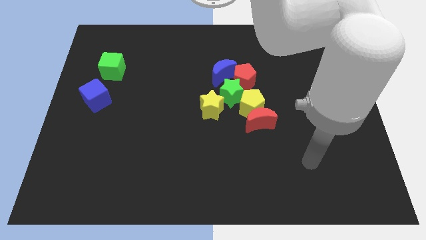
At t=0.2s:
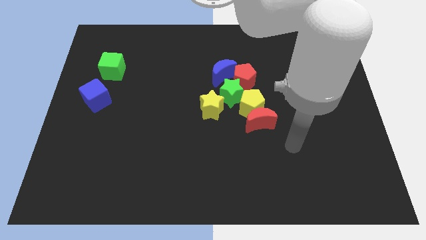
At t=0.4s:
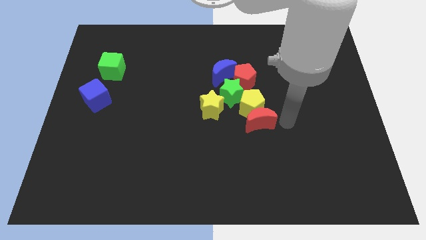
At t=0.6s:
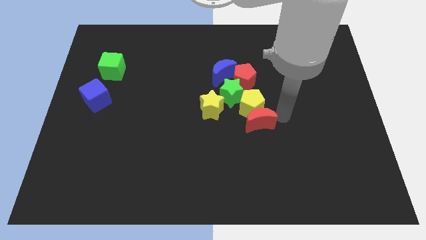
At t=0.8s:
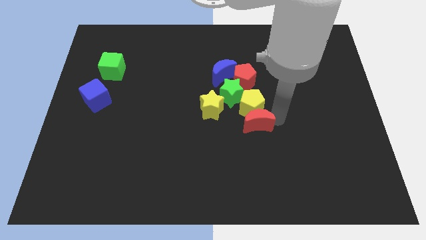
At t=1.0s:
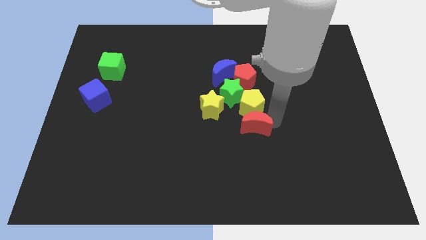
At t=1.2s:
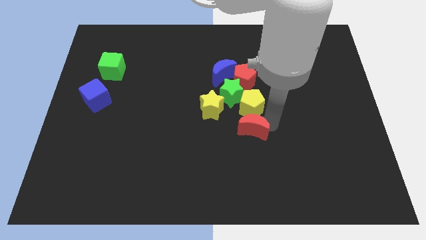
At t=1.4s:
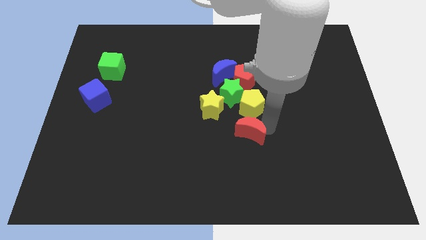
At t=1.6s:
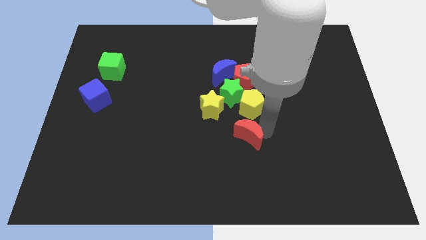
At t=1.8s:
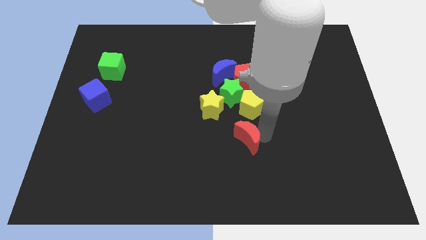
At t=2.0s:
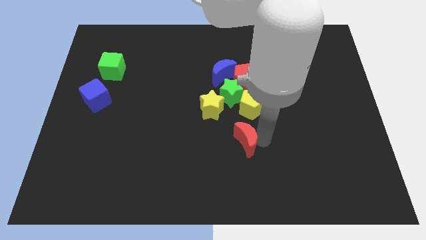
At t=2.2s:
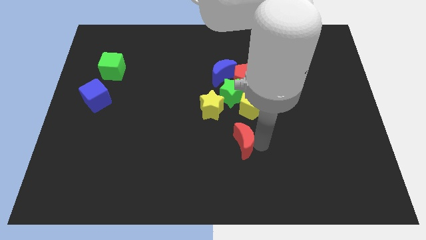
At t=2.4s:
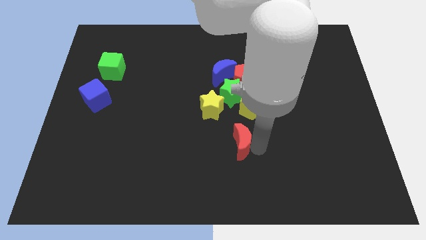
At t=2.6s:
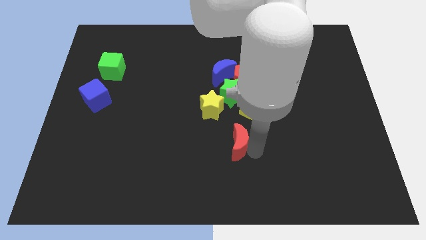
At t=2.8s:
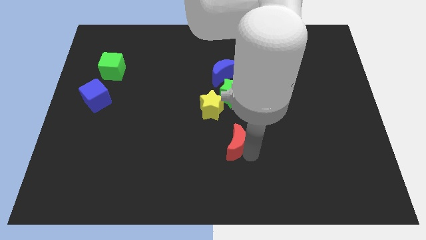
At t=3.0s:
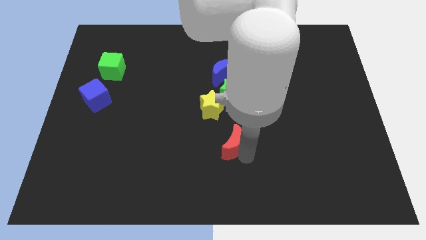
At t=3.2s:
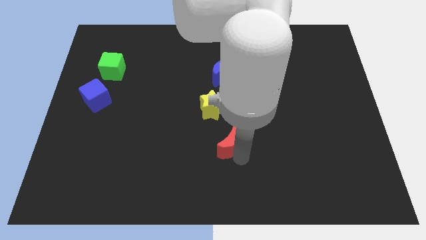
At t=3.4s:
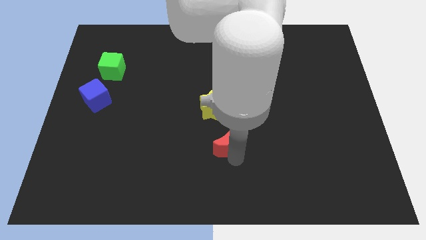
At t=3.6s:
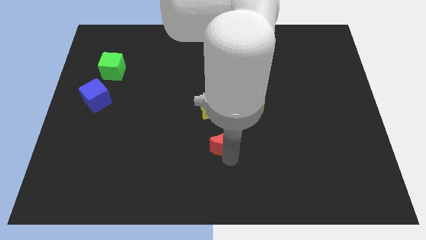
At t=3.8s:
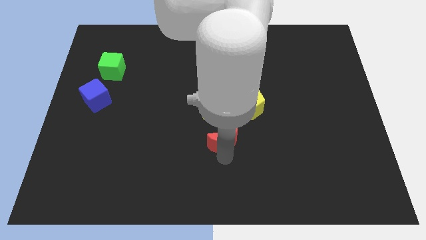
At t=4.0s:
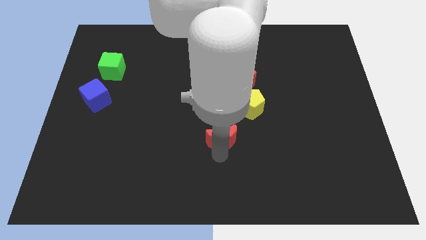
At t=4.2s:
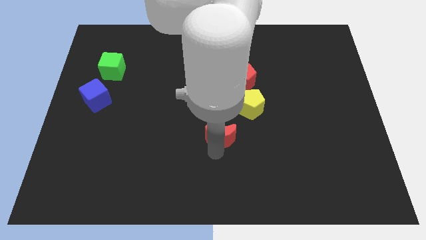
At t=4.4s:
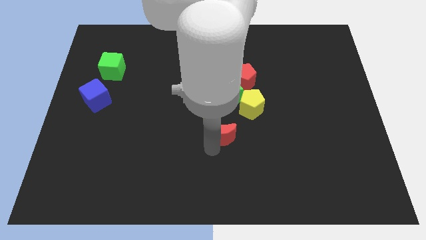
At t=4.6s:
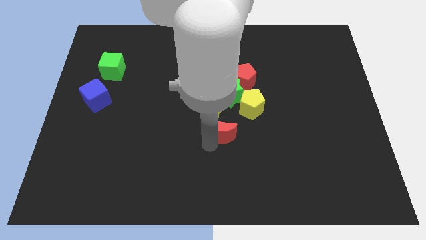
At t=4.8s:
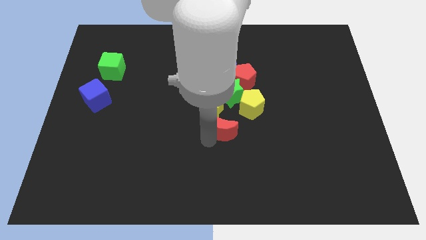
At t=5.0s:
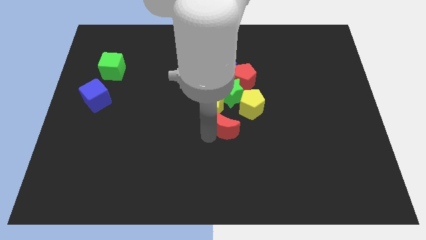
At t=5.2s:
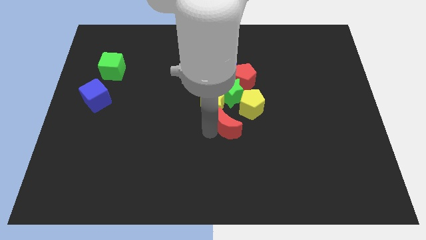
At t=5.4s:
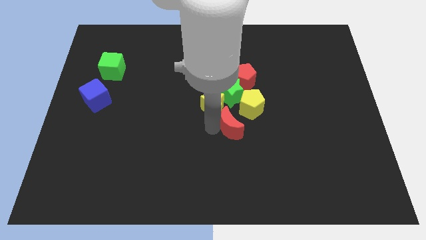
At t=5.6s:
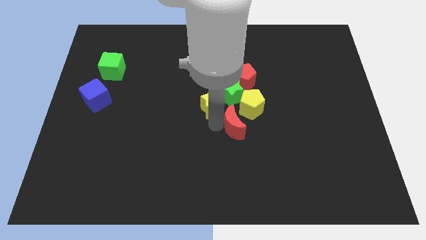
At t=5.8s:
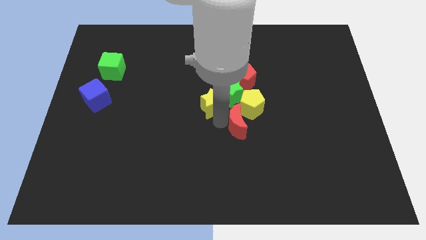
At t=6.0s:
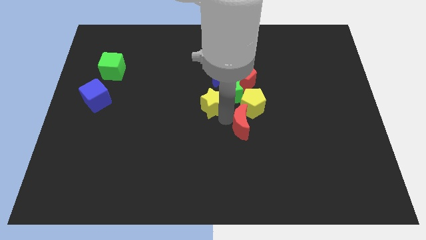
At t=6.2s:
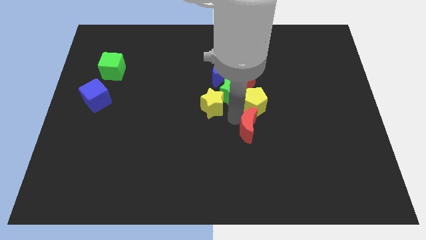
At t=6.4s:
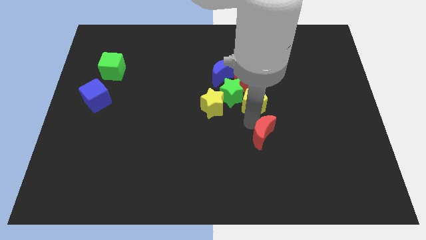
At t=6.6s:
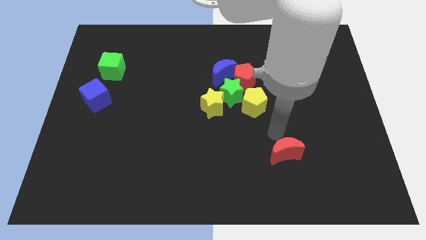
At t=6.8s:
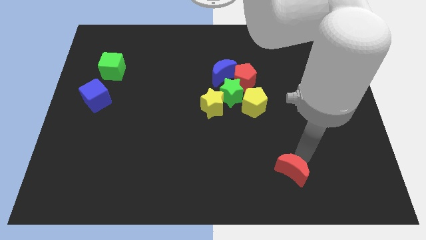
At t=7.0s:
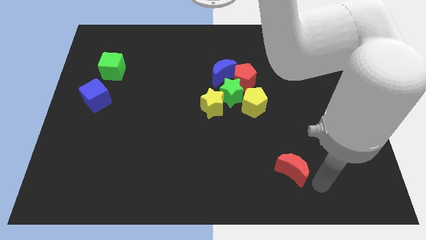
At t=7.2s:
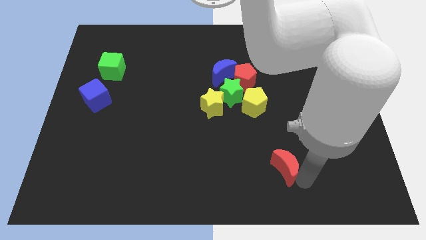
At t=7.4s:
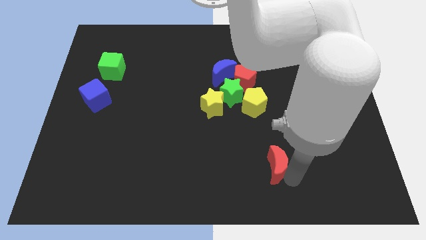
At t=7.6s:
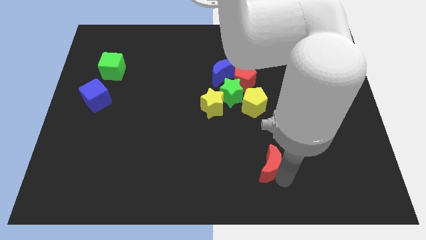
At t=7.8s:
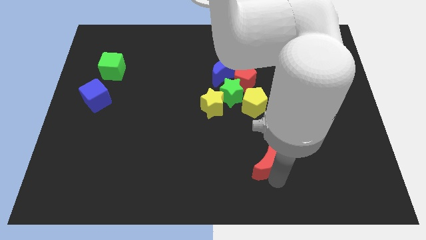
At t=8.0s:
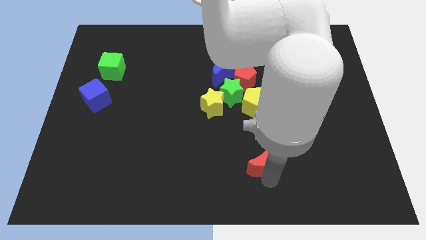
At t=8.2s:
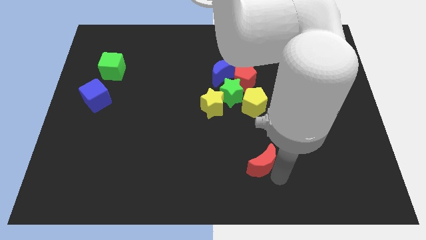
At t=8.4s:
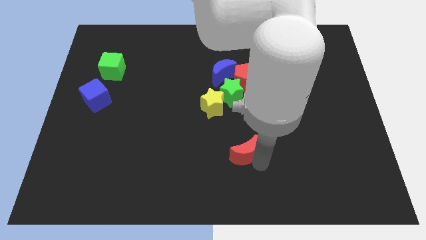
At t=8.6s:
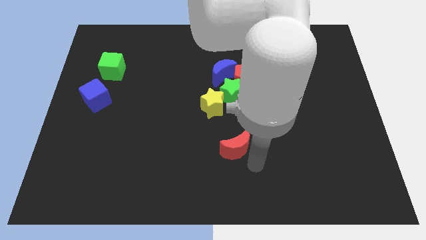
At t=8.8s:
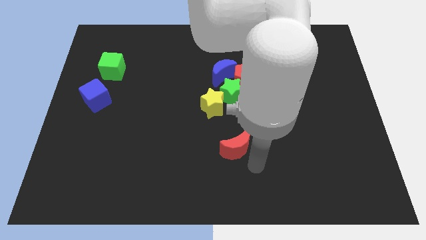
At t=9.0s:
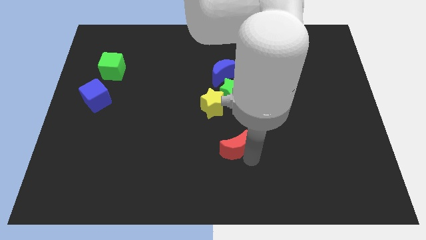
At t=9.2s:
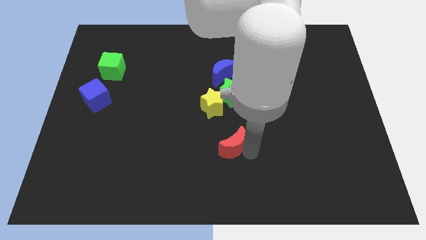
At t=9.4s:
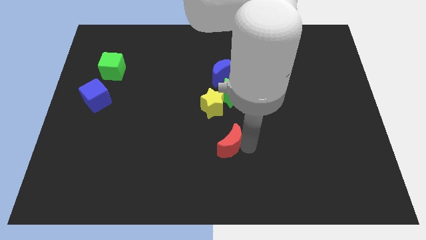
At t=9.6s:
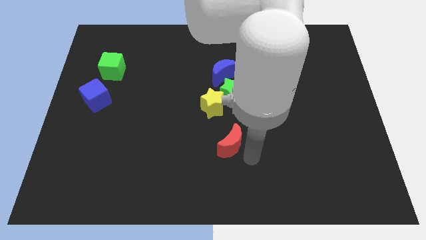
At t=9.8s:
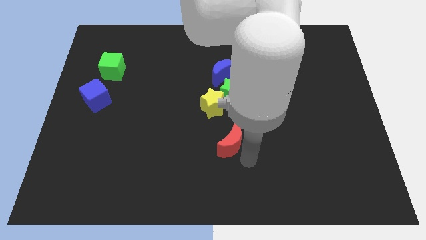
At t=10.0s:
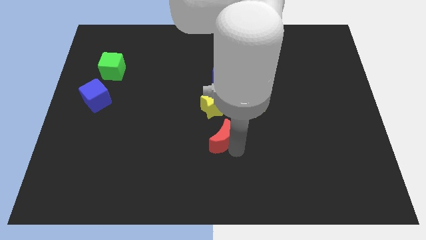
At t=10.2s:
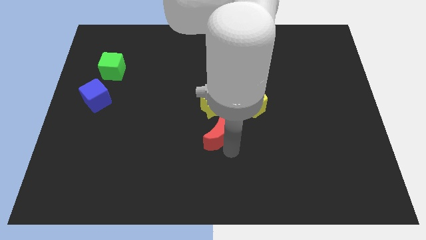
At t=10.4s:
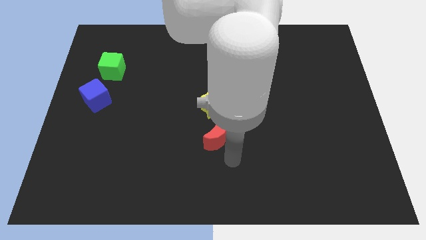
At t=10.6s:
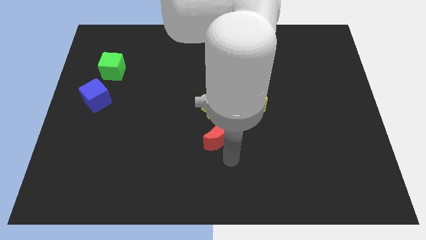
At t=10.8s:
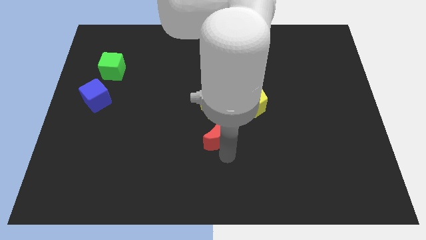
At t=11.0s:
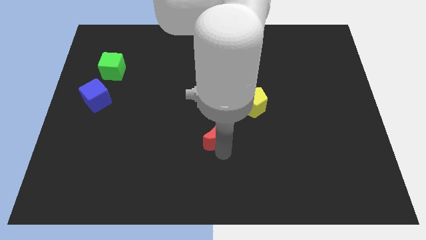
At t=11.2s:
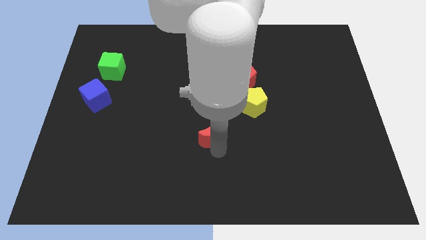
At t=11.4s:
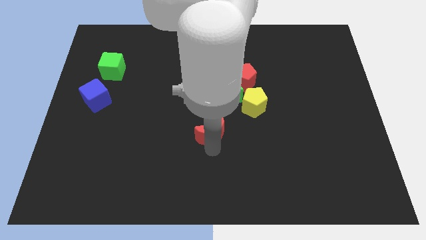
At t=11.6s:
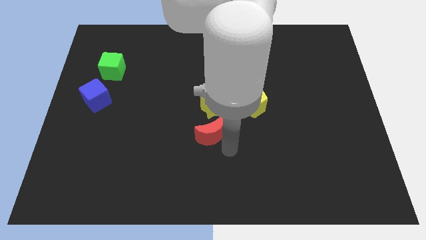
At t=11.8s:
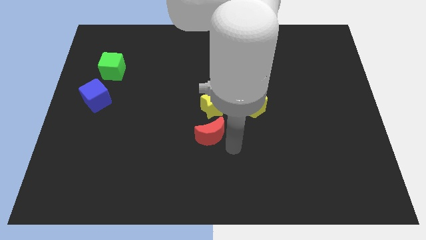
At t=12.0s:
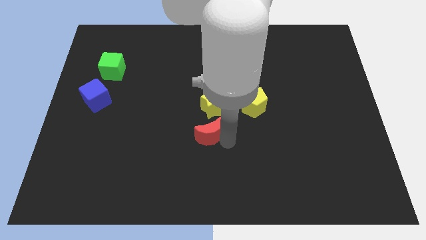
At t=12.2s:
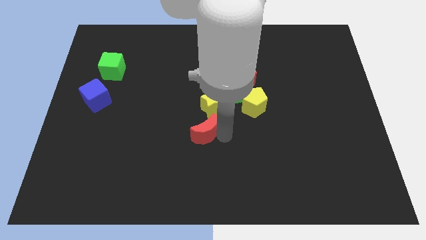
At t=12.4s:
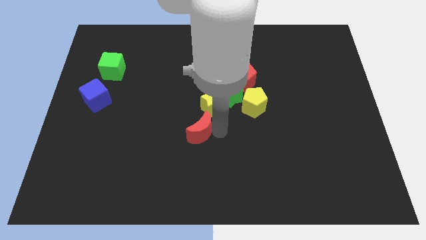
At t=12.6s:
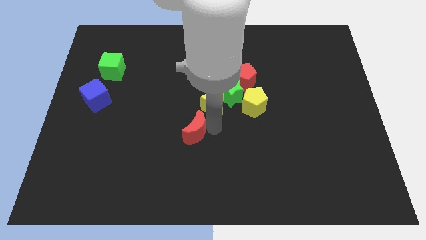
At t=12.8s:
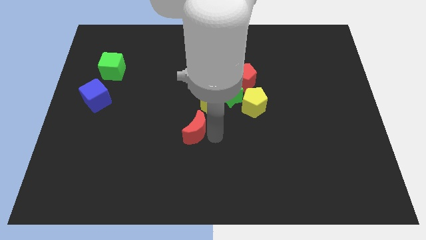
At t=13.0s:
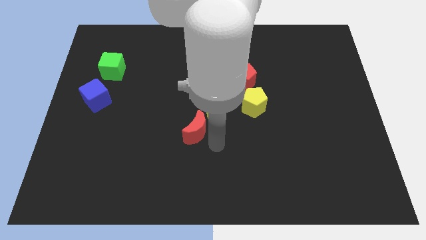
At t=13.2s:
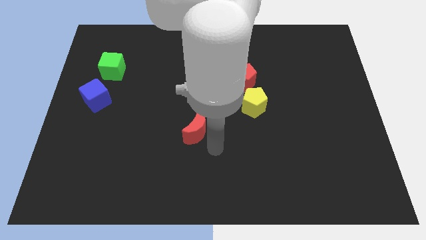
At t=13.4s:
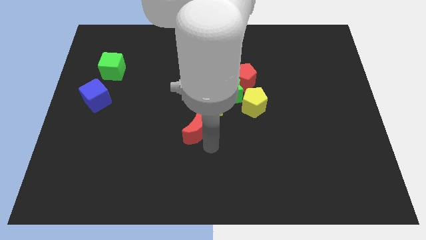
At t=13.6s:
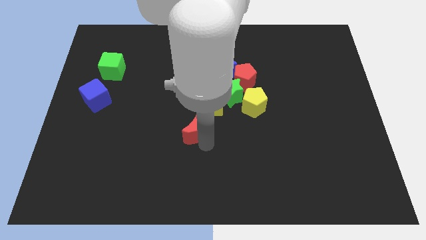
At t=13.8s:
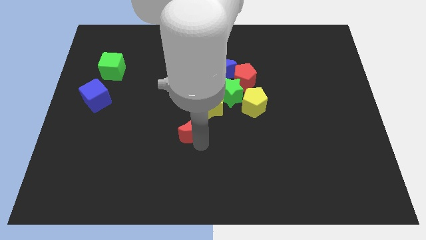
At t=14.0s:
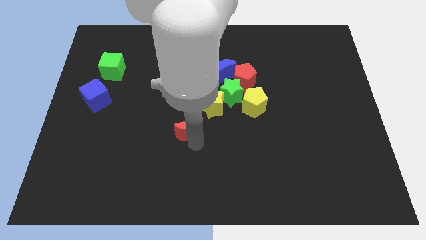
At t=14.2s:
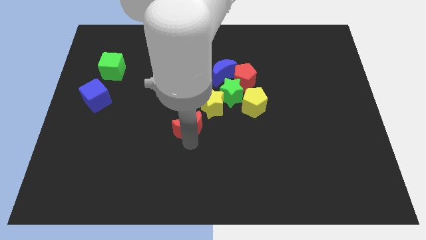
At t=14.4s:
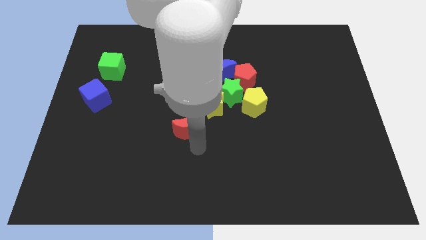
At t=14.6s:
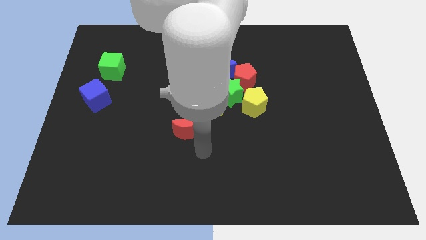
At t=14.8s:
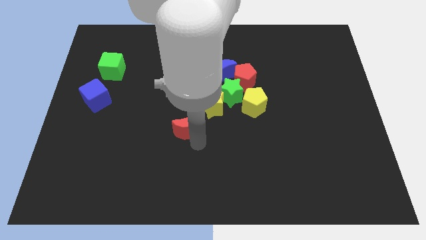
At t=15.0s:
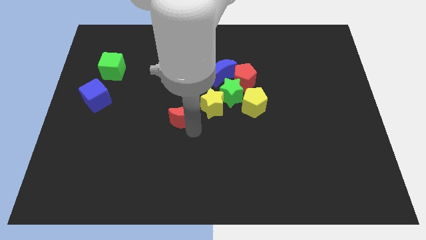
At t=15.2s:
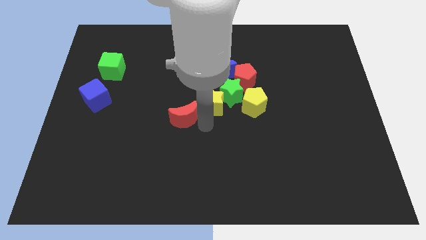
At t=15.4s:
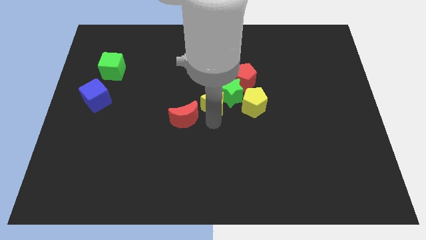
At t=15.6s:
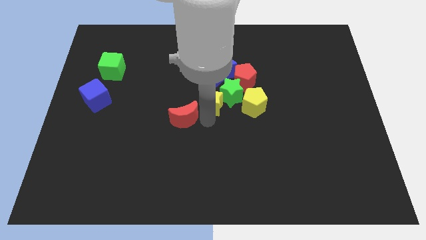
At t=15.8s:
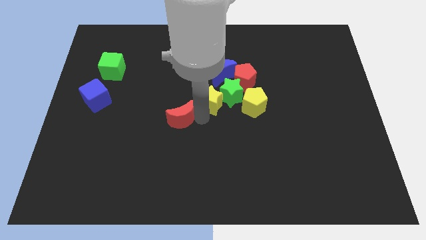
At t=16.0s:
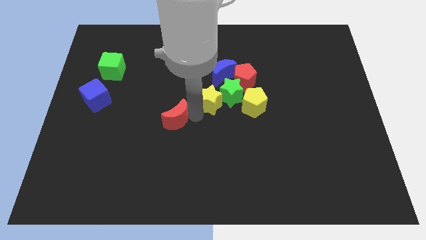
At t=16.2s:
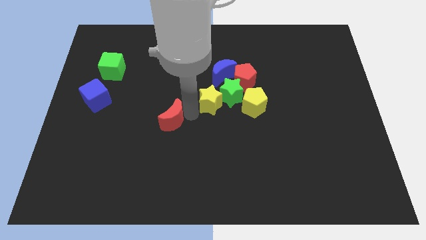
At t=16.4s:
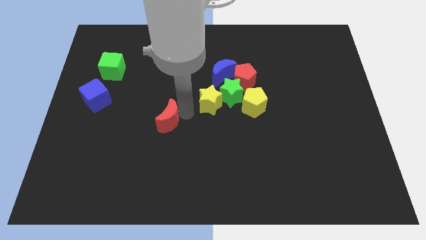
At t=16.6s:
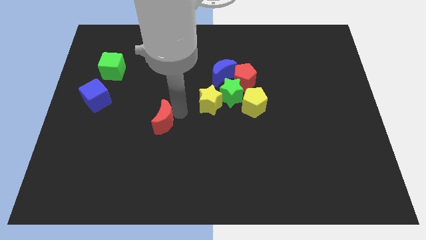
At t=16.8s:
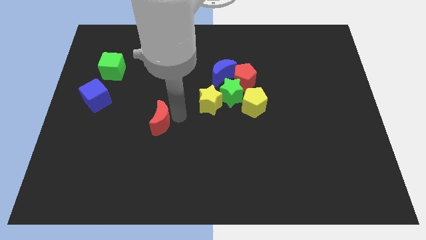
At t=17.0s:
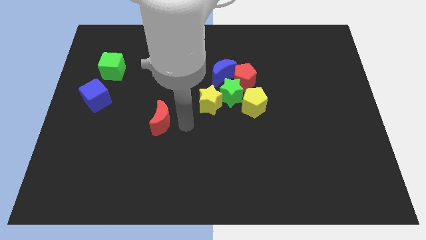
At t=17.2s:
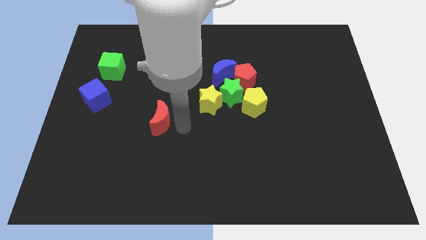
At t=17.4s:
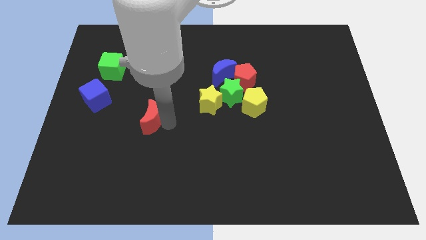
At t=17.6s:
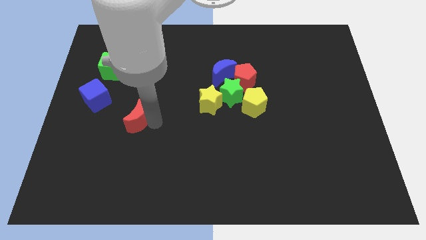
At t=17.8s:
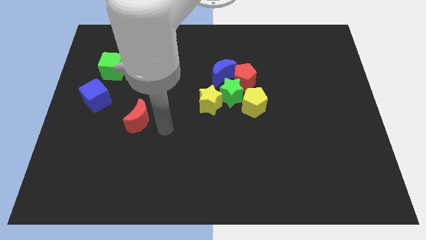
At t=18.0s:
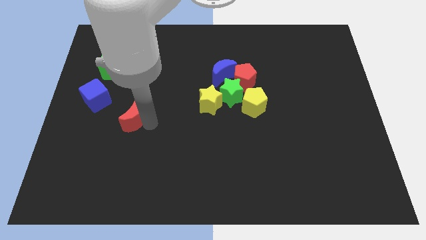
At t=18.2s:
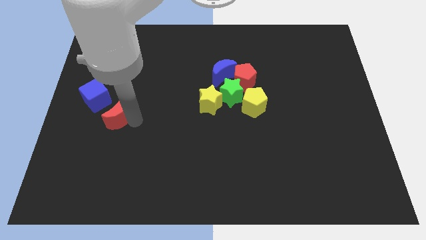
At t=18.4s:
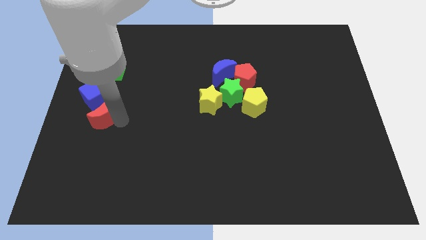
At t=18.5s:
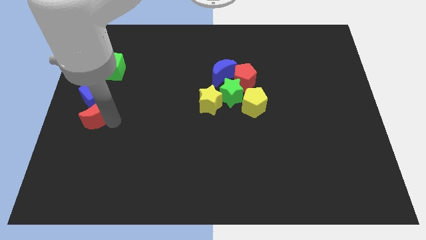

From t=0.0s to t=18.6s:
put the red moon next to the blue cube
